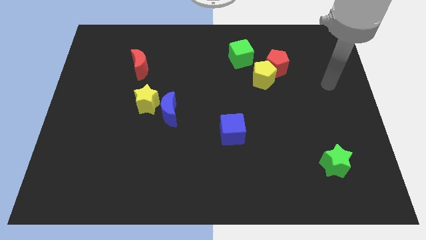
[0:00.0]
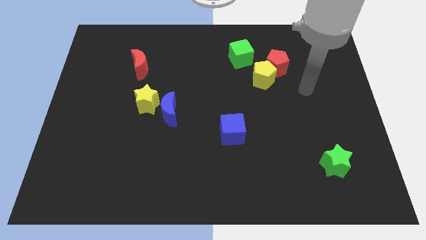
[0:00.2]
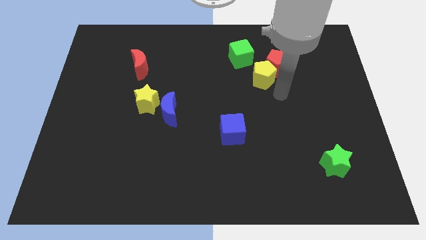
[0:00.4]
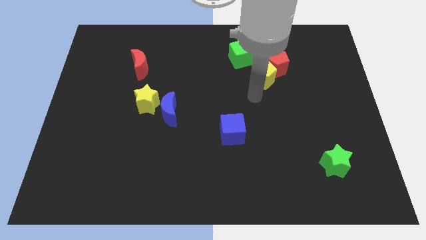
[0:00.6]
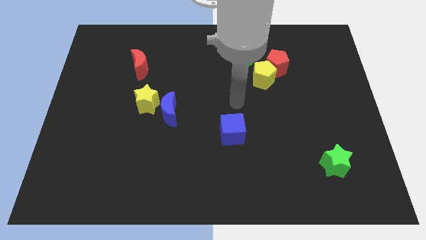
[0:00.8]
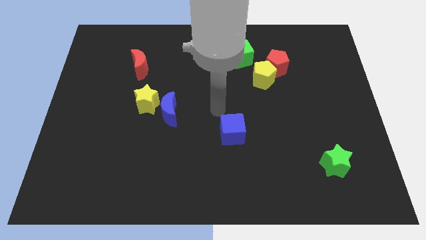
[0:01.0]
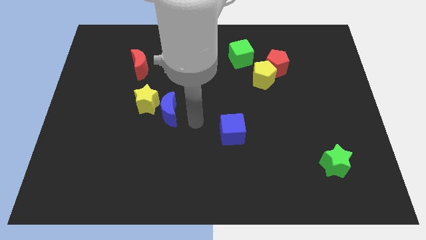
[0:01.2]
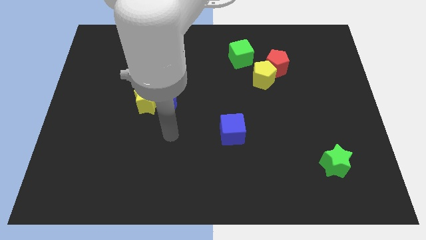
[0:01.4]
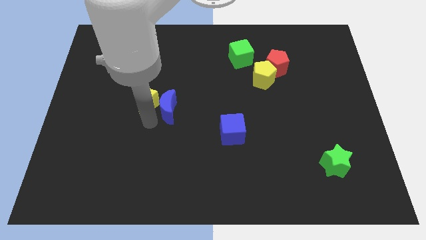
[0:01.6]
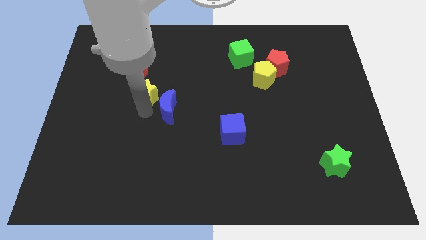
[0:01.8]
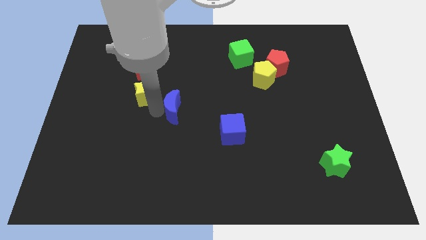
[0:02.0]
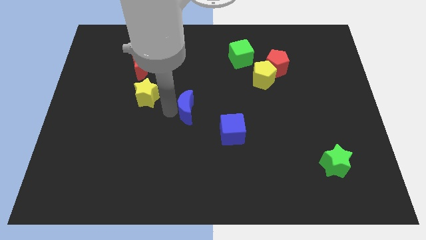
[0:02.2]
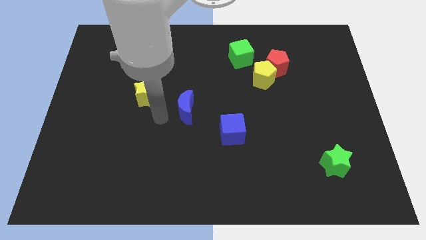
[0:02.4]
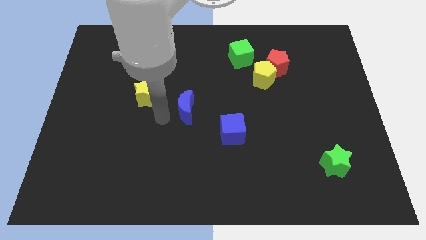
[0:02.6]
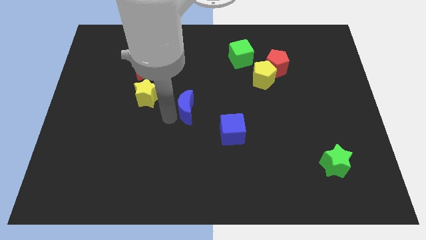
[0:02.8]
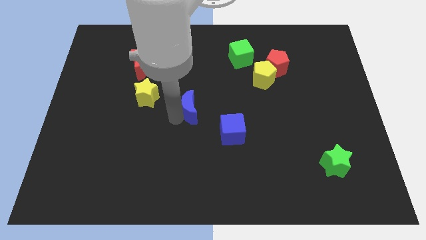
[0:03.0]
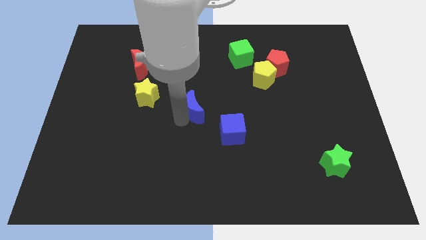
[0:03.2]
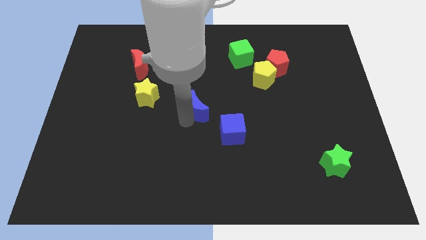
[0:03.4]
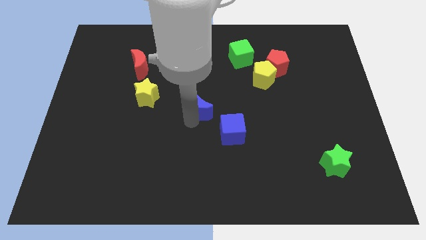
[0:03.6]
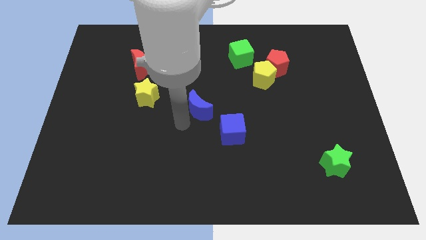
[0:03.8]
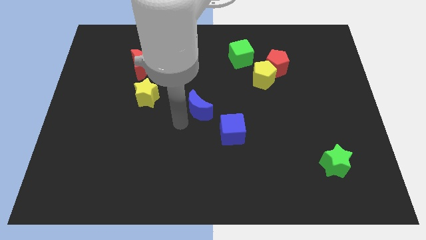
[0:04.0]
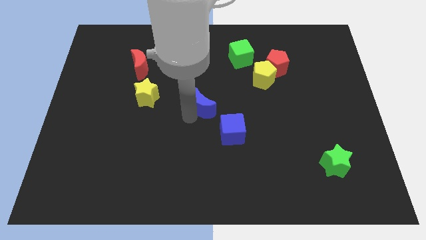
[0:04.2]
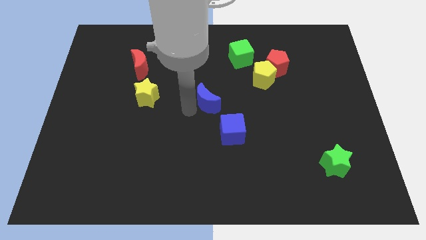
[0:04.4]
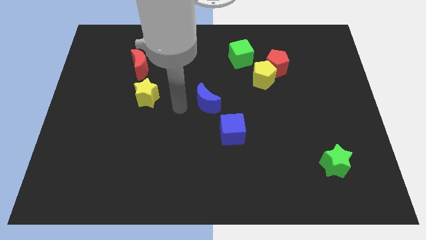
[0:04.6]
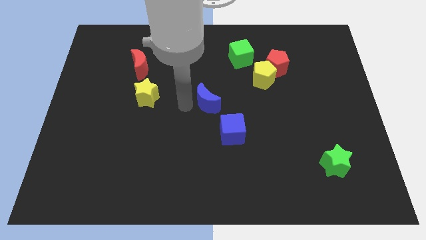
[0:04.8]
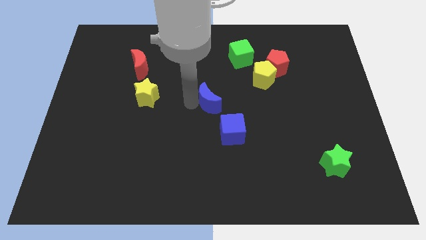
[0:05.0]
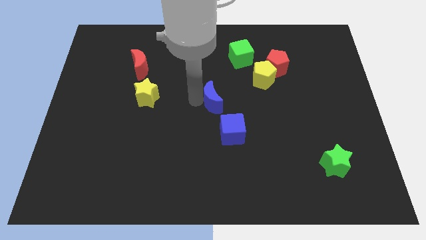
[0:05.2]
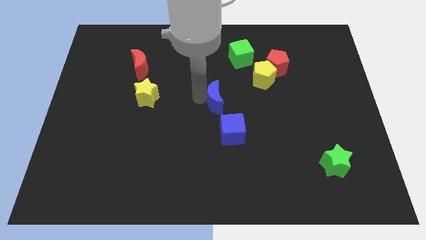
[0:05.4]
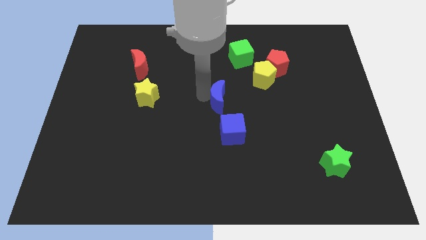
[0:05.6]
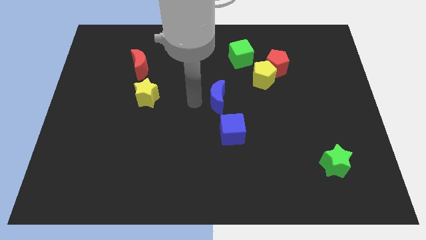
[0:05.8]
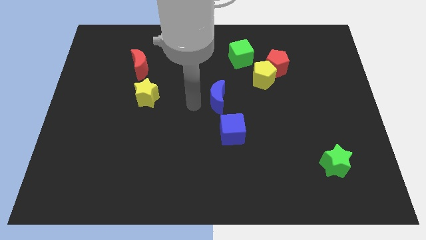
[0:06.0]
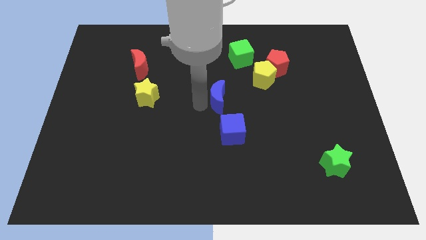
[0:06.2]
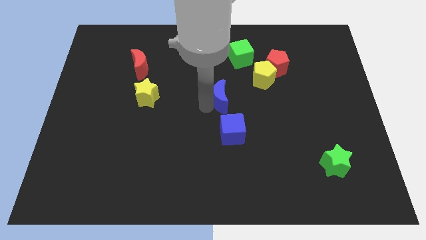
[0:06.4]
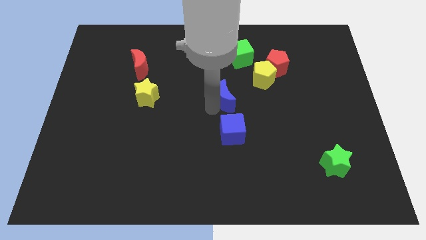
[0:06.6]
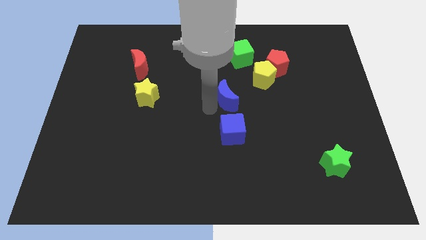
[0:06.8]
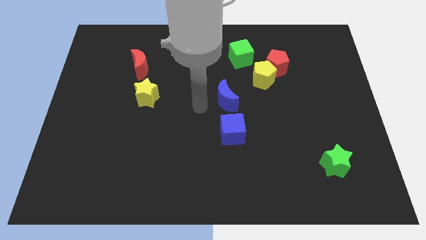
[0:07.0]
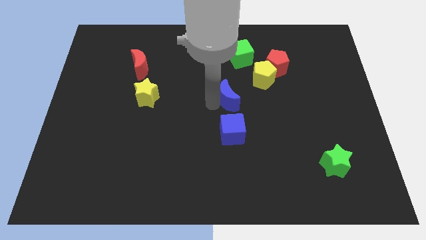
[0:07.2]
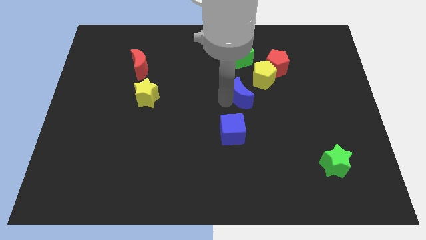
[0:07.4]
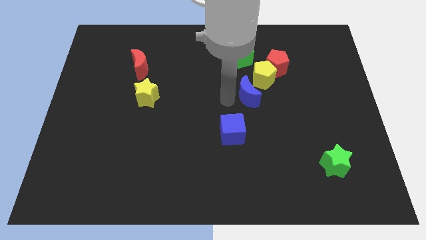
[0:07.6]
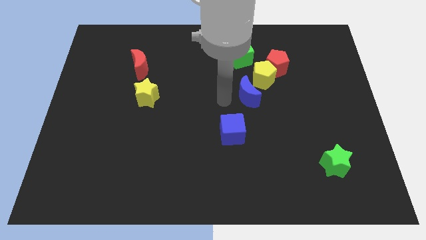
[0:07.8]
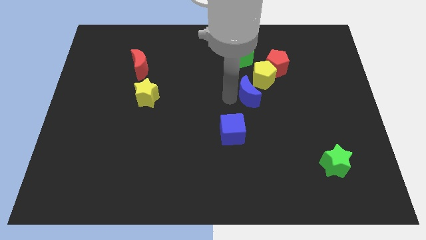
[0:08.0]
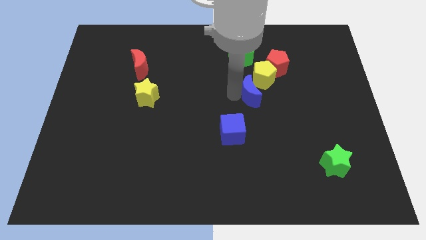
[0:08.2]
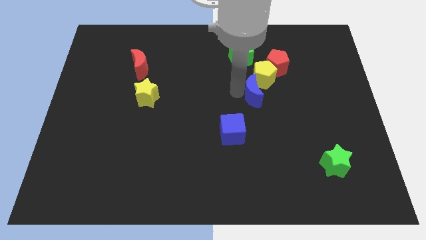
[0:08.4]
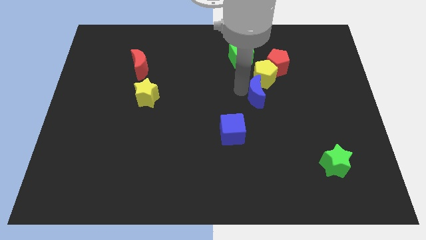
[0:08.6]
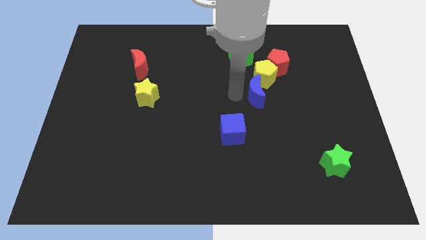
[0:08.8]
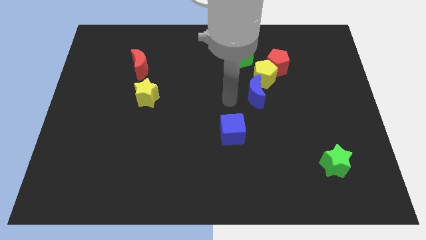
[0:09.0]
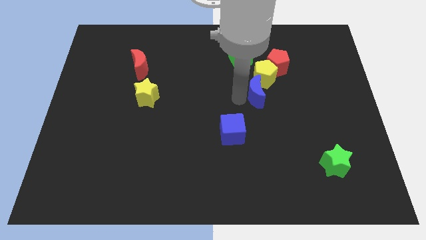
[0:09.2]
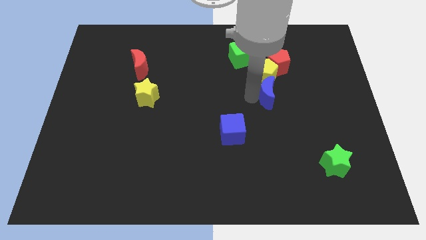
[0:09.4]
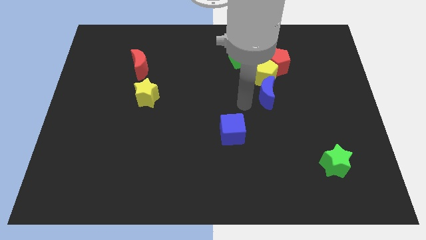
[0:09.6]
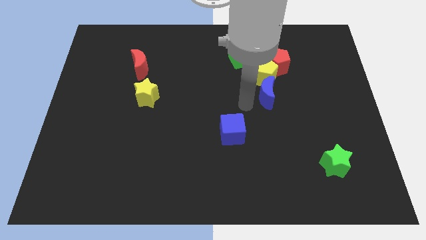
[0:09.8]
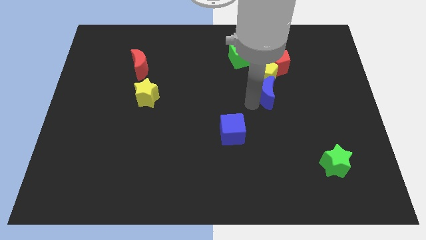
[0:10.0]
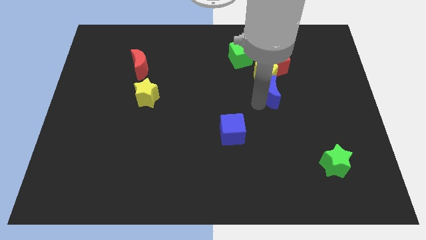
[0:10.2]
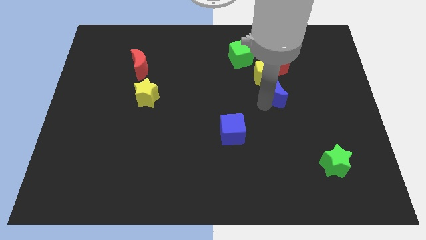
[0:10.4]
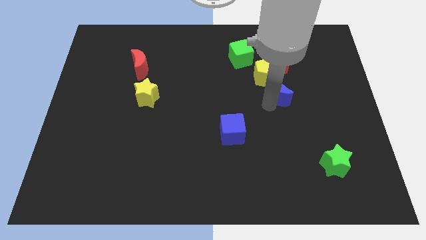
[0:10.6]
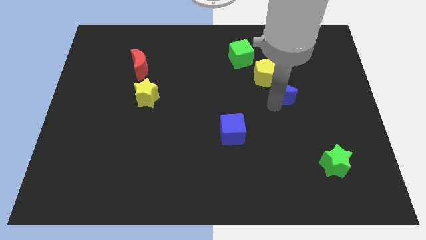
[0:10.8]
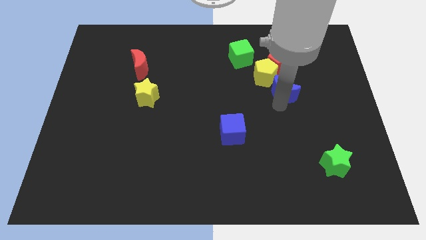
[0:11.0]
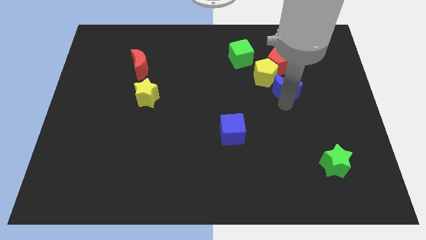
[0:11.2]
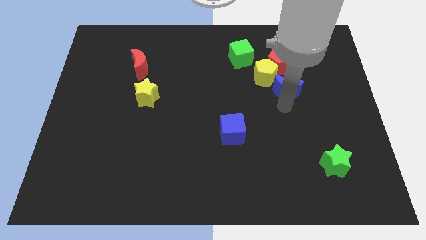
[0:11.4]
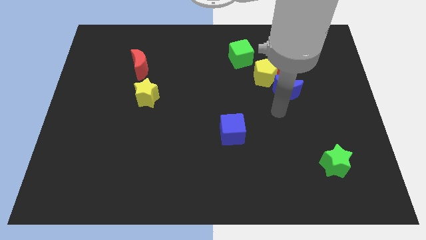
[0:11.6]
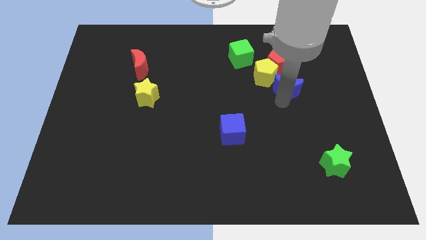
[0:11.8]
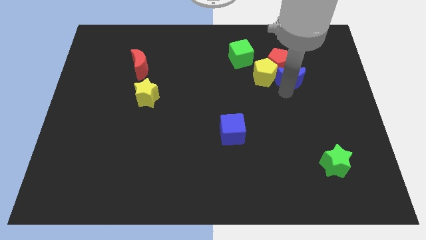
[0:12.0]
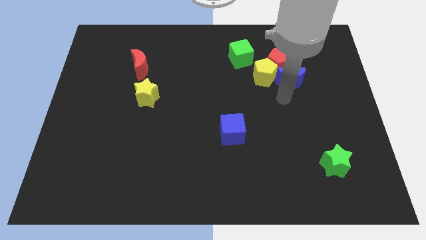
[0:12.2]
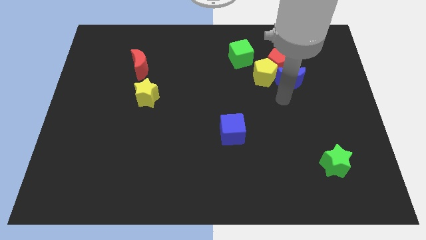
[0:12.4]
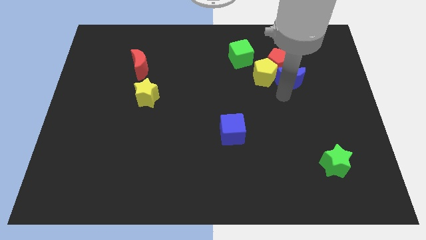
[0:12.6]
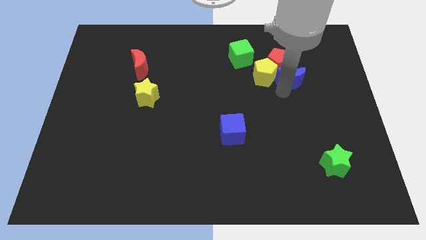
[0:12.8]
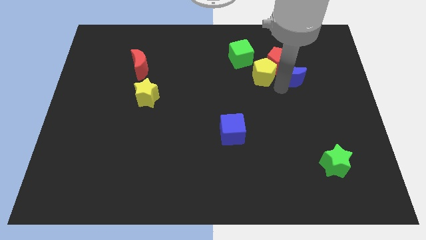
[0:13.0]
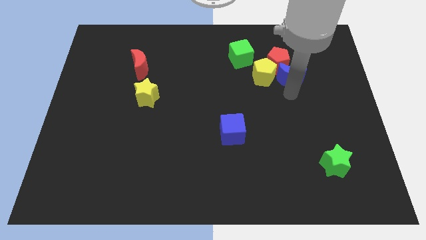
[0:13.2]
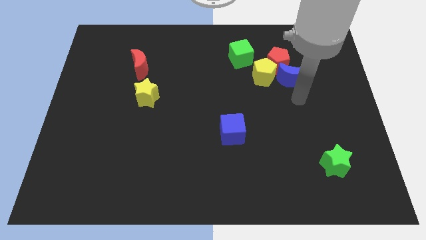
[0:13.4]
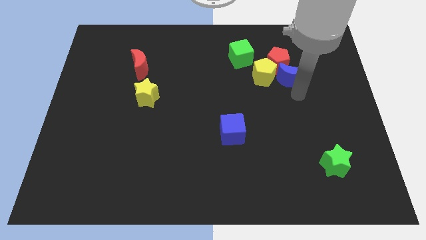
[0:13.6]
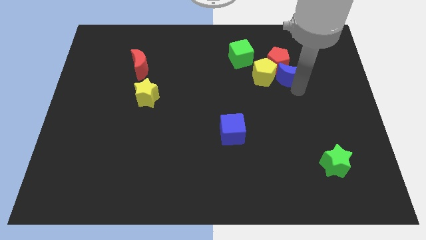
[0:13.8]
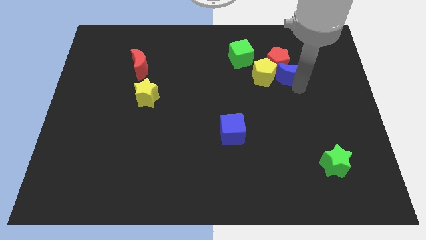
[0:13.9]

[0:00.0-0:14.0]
move the blue moon to the top right of the yellow pentagon

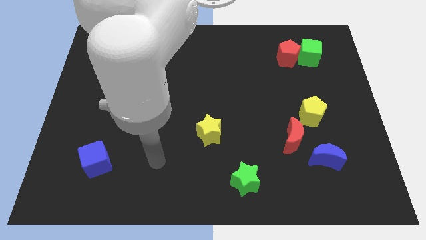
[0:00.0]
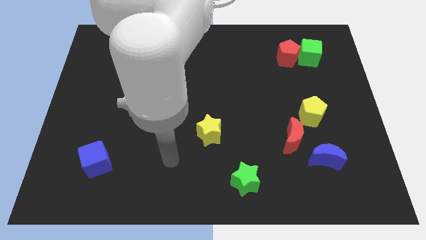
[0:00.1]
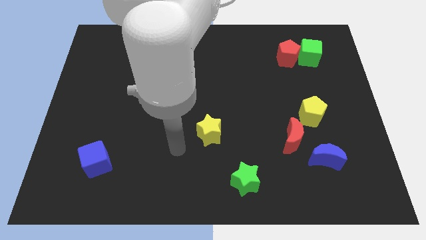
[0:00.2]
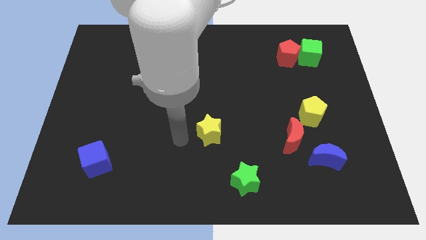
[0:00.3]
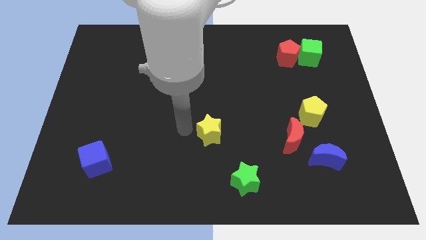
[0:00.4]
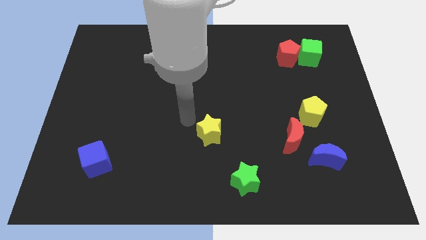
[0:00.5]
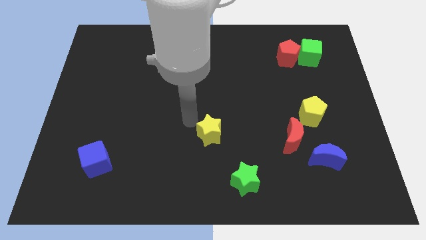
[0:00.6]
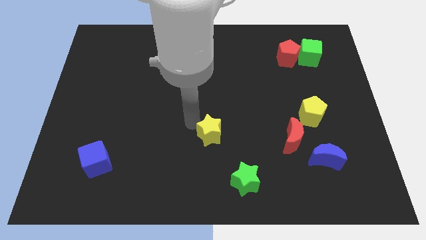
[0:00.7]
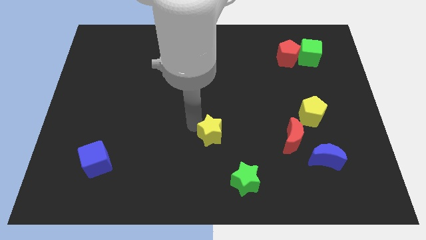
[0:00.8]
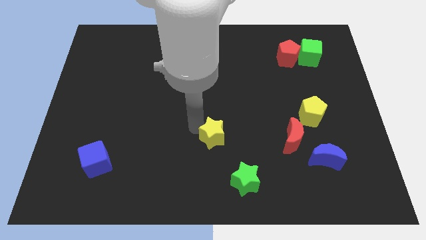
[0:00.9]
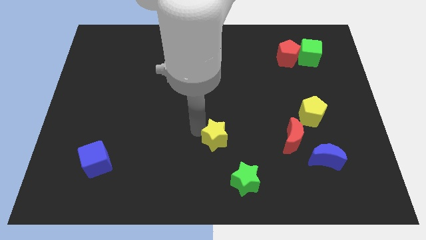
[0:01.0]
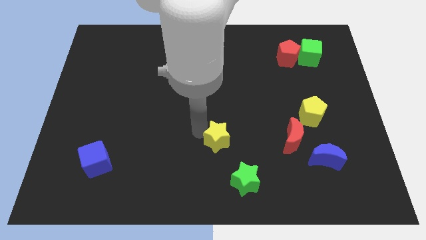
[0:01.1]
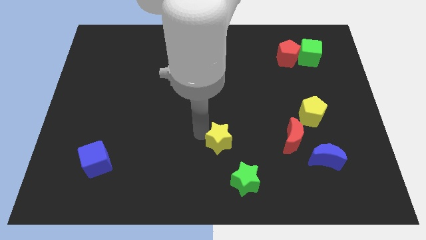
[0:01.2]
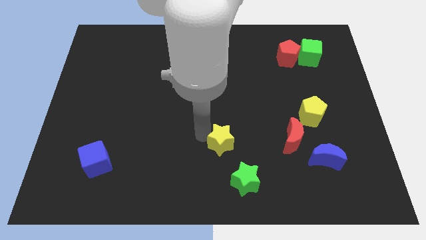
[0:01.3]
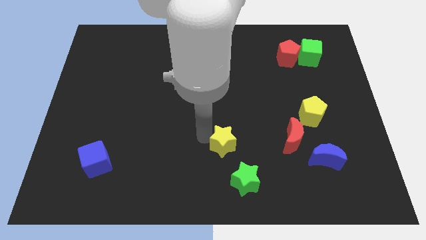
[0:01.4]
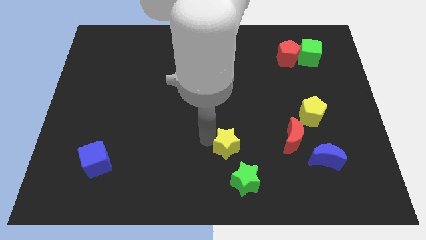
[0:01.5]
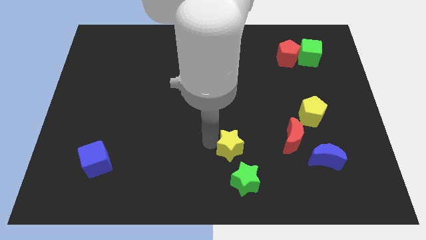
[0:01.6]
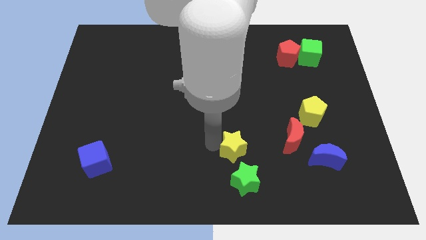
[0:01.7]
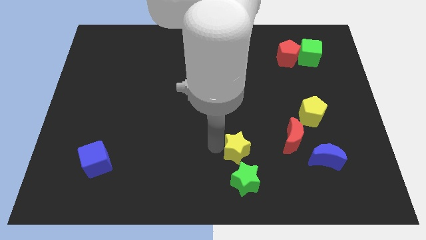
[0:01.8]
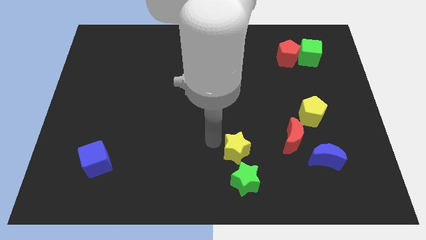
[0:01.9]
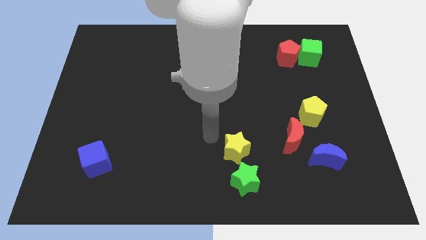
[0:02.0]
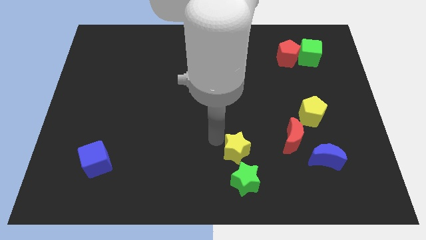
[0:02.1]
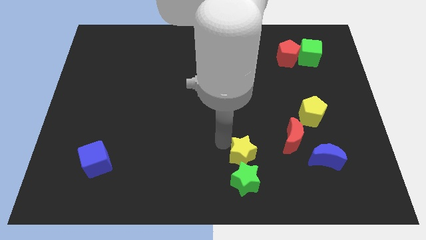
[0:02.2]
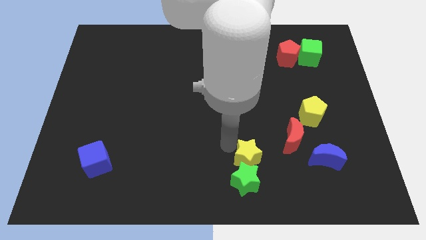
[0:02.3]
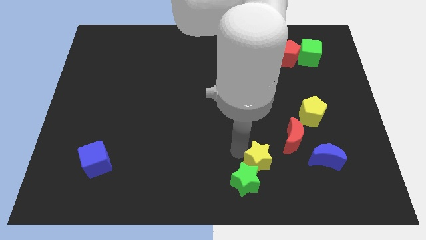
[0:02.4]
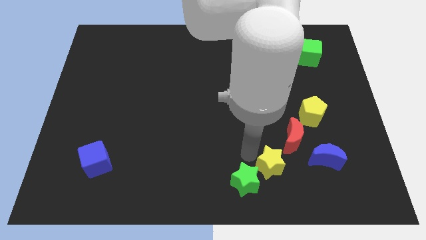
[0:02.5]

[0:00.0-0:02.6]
push the yellow star to the right side of the green star
